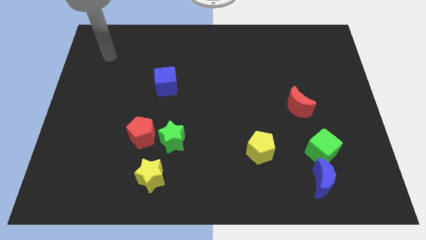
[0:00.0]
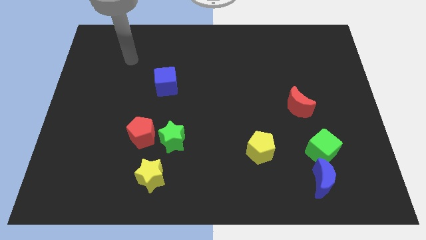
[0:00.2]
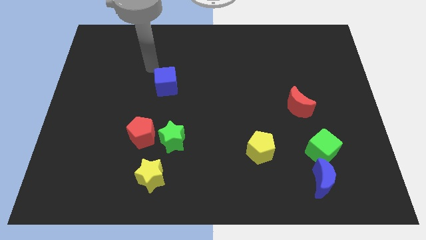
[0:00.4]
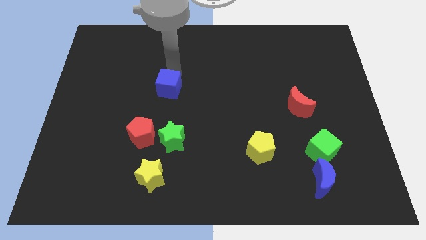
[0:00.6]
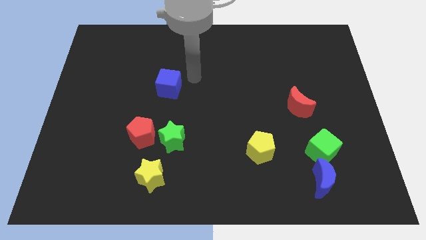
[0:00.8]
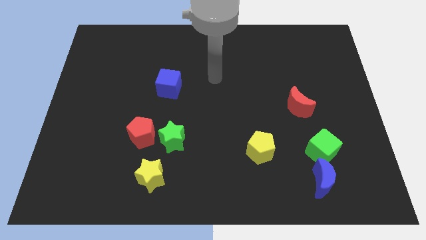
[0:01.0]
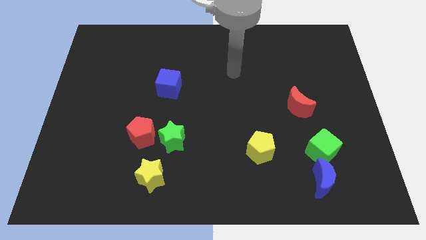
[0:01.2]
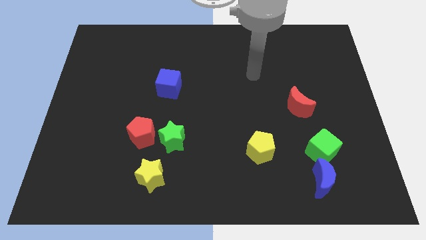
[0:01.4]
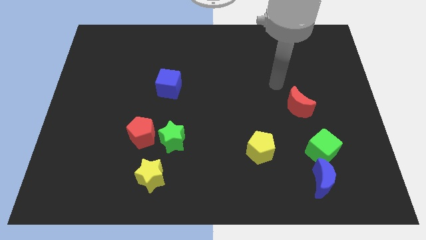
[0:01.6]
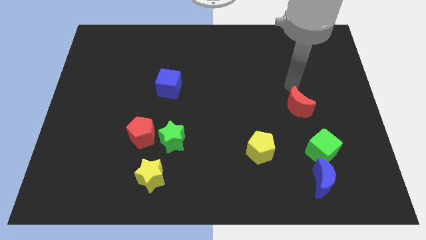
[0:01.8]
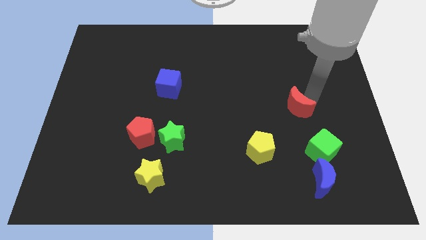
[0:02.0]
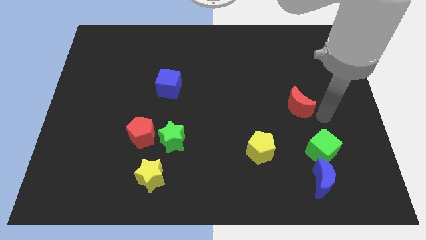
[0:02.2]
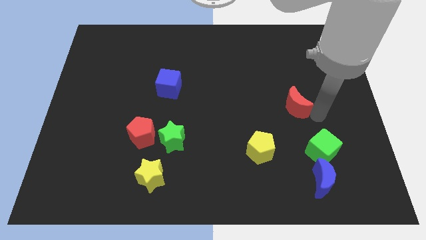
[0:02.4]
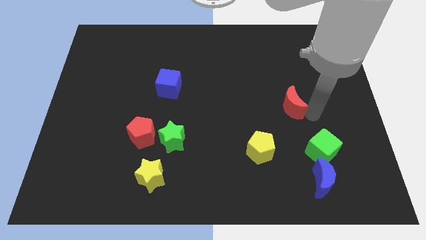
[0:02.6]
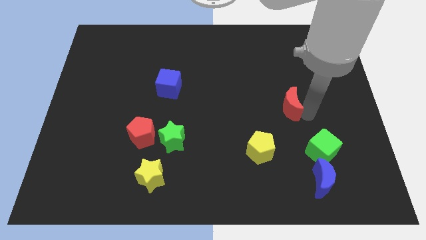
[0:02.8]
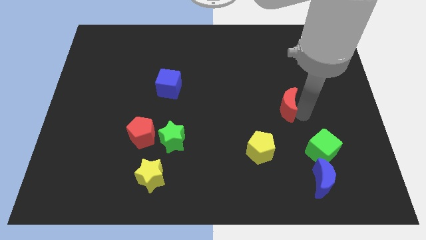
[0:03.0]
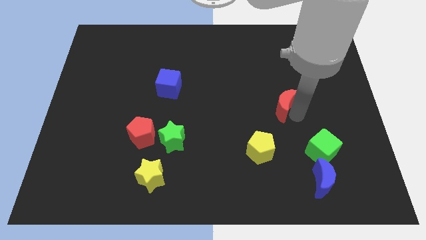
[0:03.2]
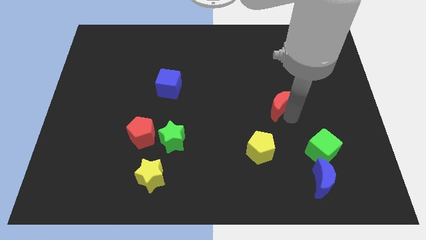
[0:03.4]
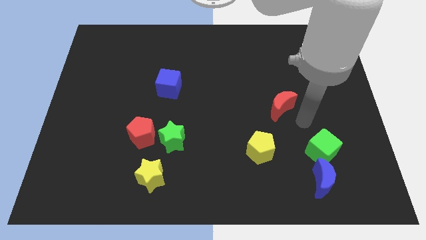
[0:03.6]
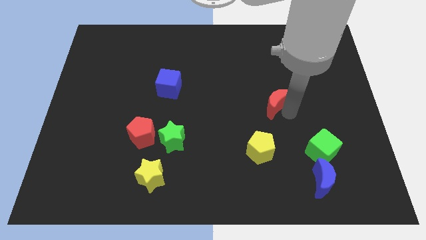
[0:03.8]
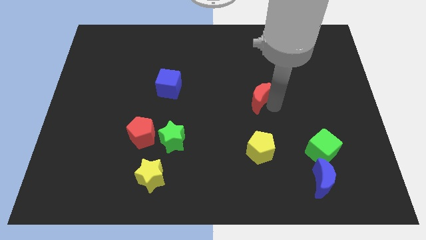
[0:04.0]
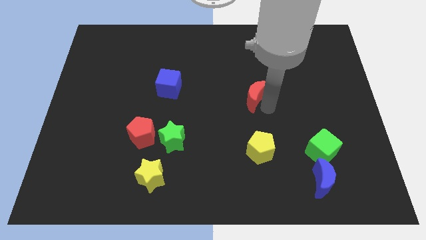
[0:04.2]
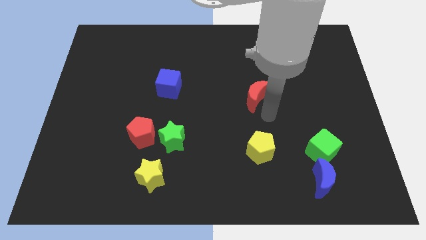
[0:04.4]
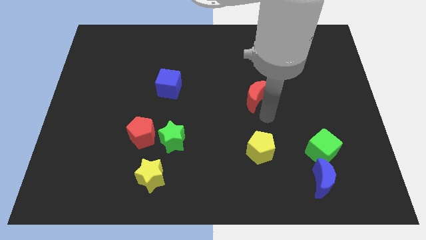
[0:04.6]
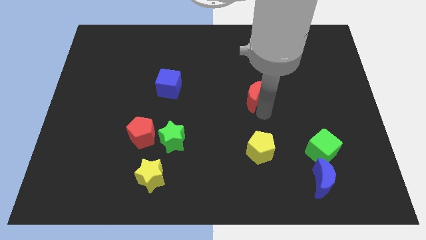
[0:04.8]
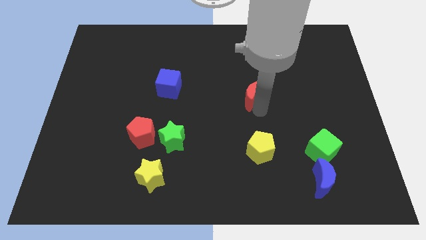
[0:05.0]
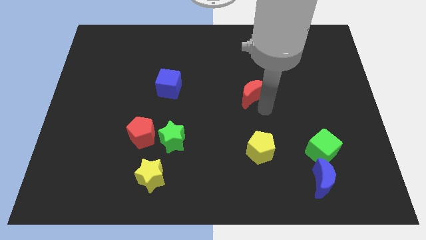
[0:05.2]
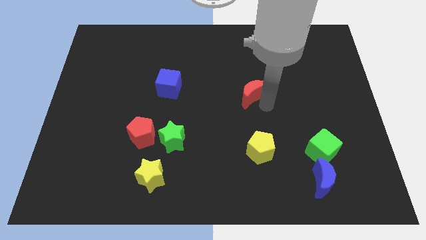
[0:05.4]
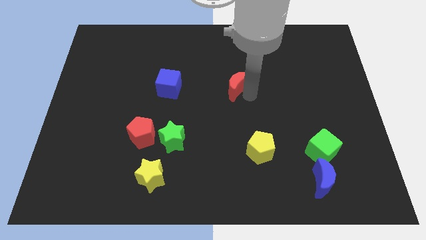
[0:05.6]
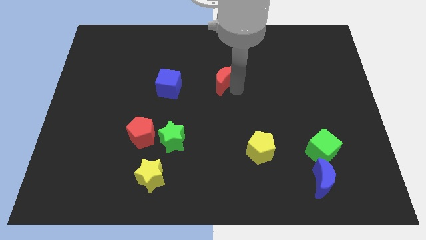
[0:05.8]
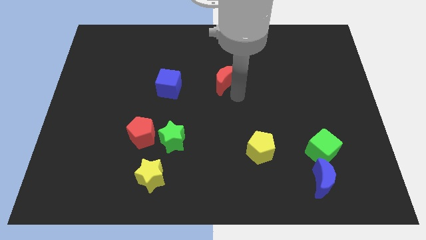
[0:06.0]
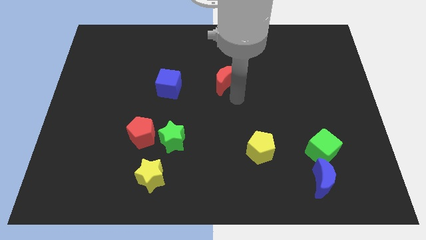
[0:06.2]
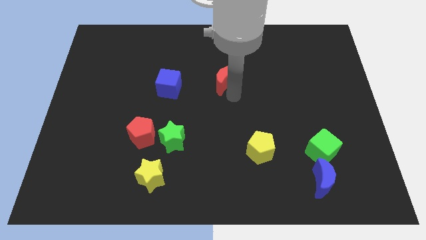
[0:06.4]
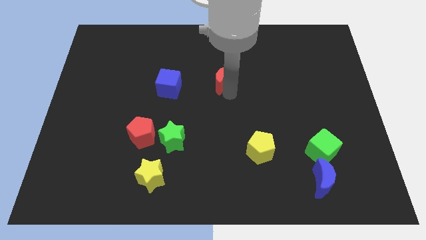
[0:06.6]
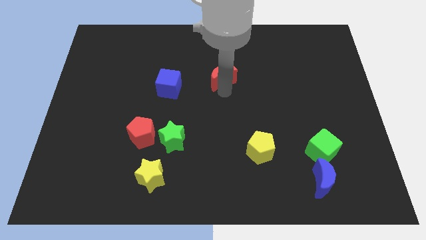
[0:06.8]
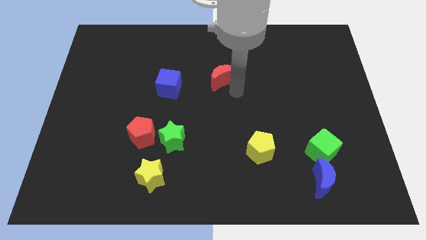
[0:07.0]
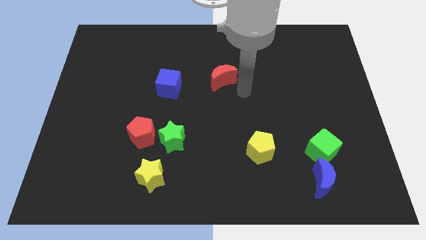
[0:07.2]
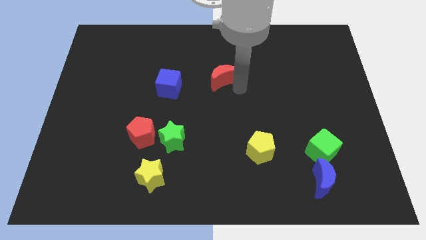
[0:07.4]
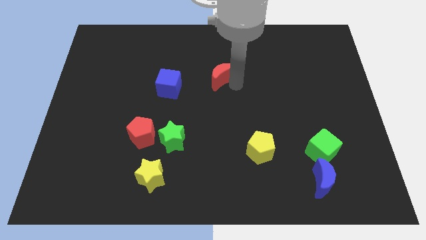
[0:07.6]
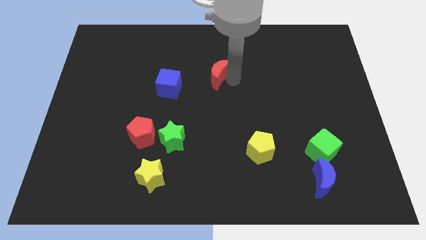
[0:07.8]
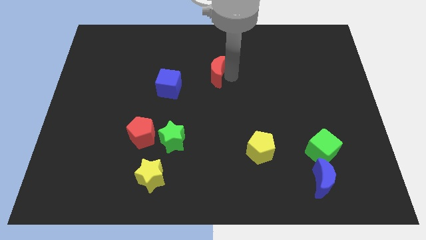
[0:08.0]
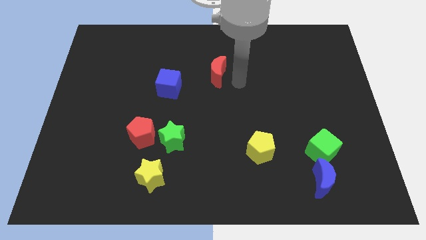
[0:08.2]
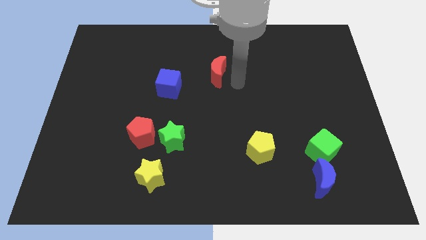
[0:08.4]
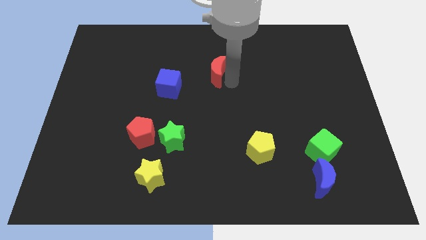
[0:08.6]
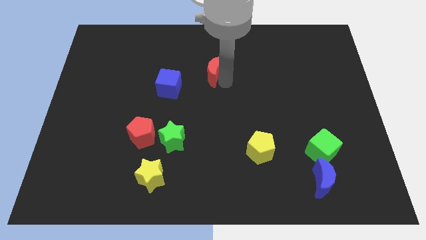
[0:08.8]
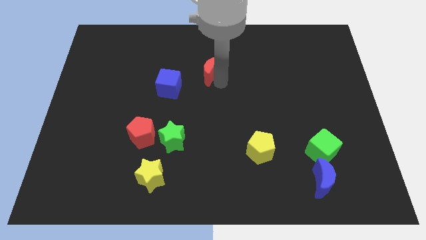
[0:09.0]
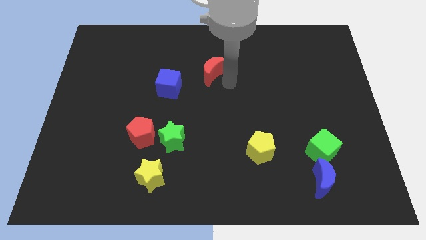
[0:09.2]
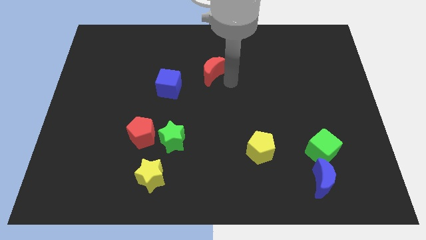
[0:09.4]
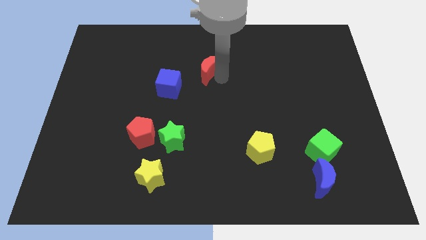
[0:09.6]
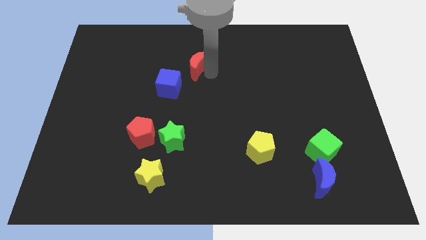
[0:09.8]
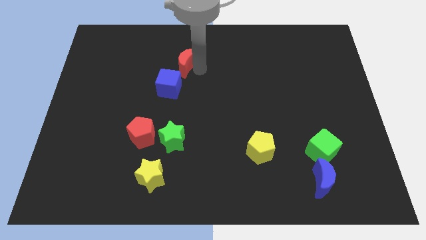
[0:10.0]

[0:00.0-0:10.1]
put the red moon above the blue cube

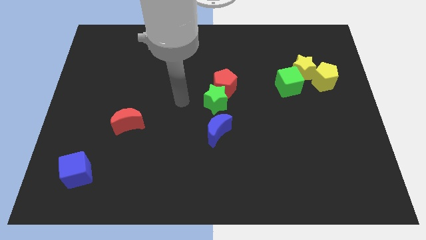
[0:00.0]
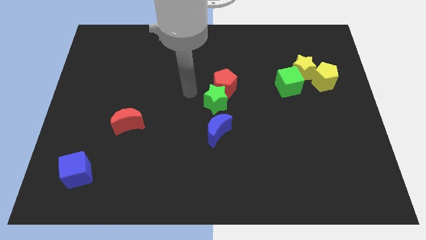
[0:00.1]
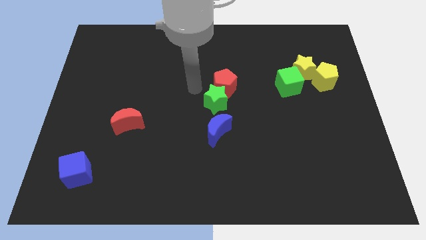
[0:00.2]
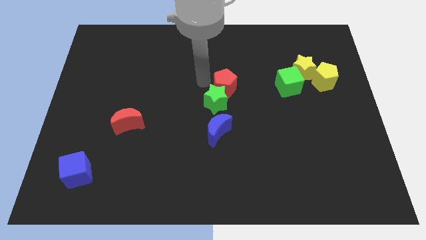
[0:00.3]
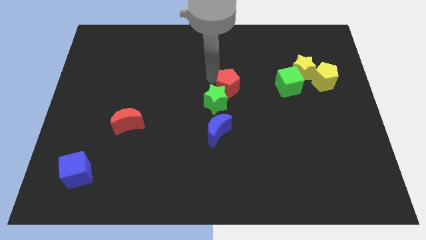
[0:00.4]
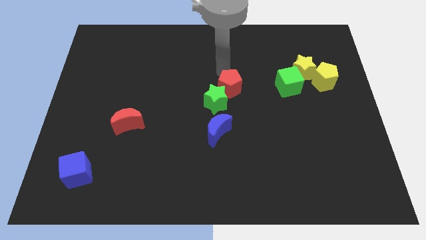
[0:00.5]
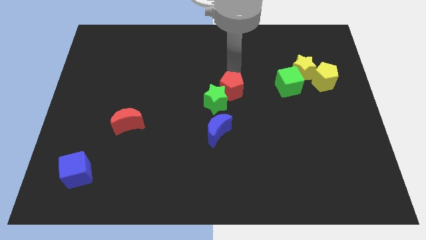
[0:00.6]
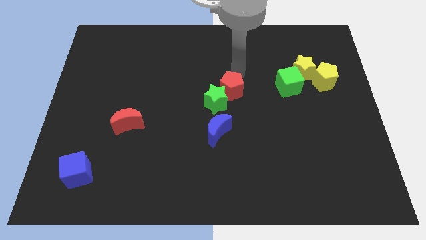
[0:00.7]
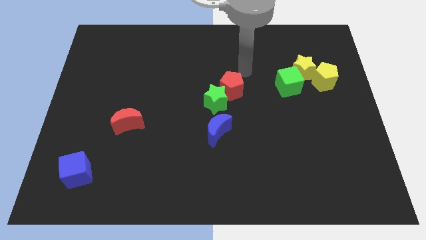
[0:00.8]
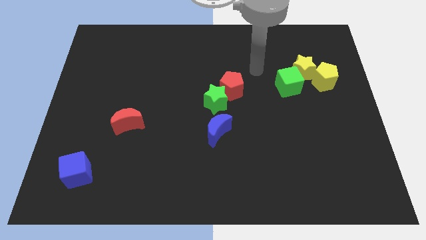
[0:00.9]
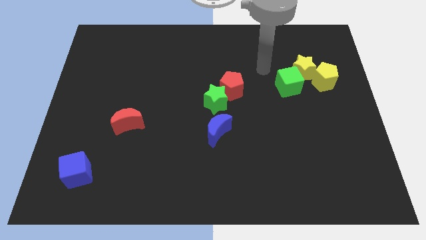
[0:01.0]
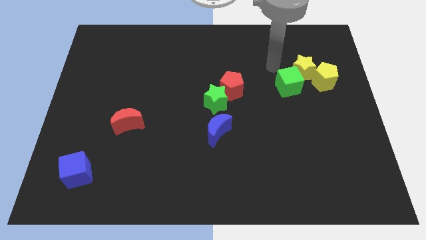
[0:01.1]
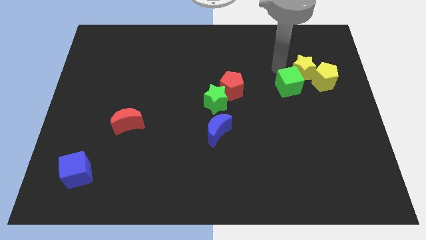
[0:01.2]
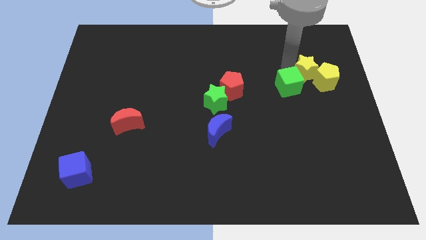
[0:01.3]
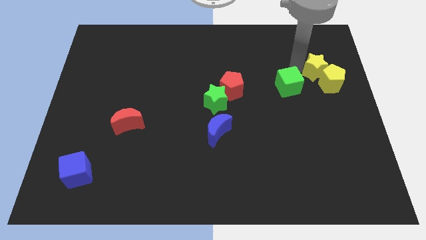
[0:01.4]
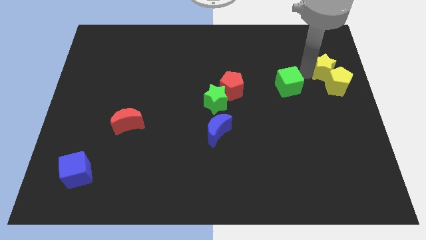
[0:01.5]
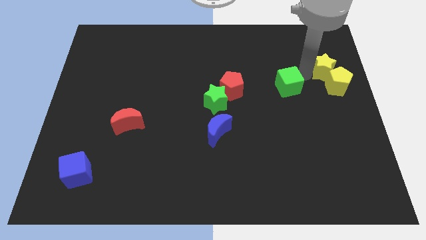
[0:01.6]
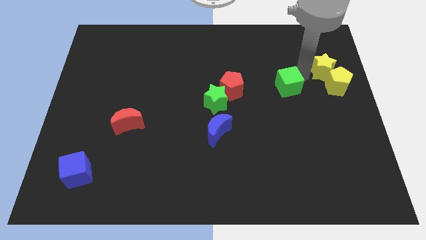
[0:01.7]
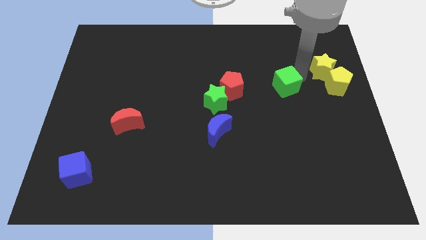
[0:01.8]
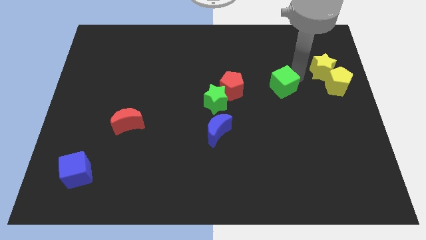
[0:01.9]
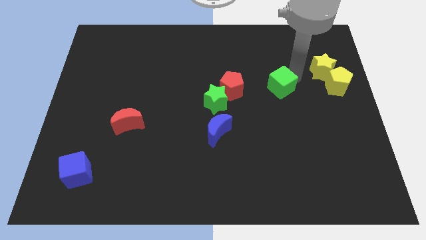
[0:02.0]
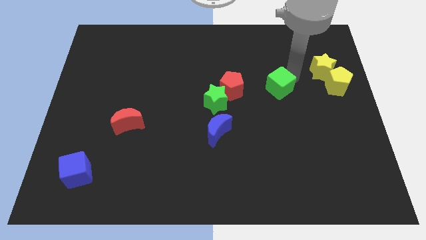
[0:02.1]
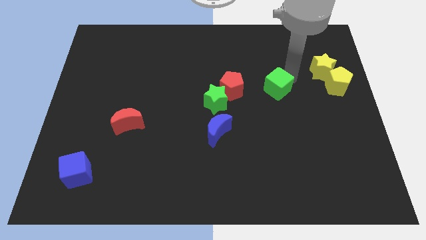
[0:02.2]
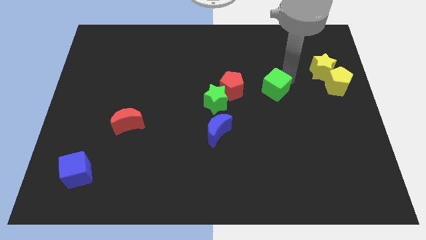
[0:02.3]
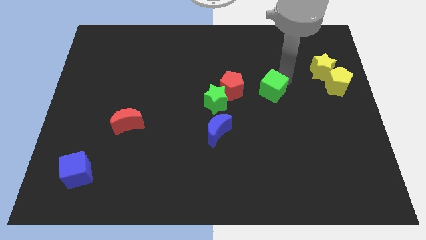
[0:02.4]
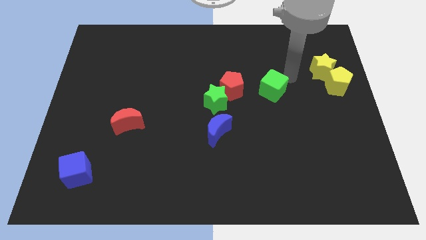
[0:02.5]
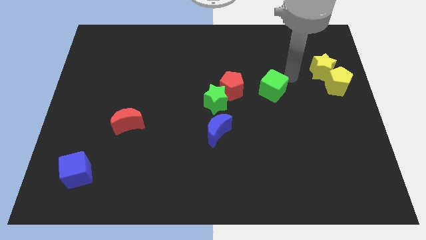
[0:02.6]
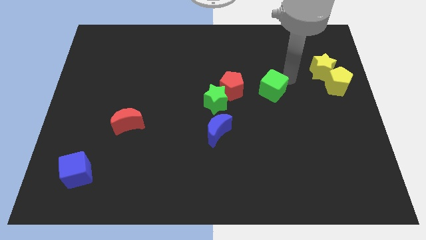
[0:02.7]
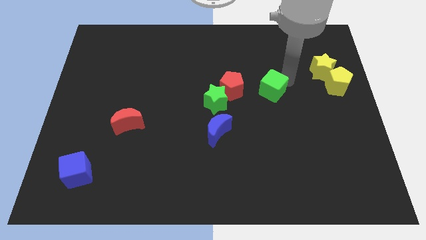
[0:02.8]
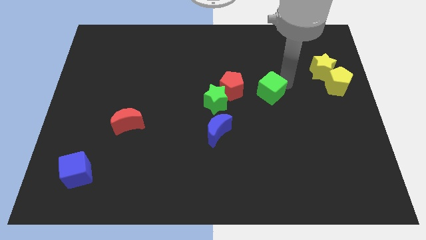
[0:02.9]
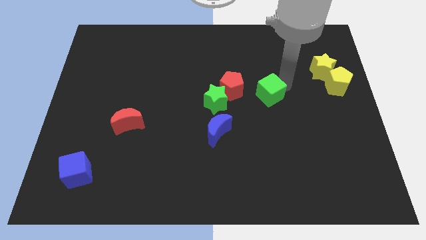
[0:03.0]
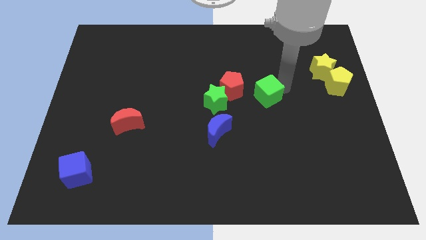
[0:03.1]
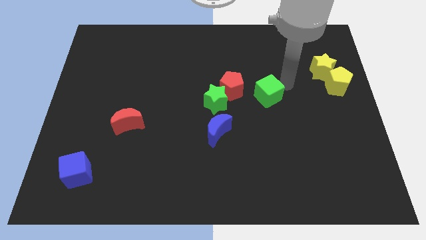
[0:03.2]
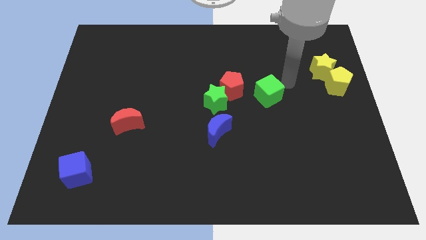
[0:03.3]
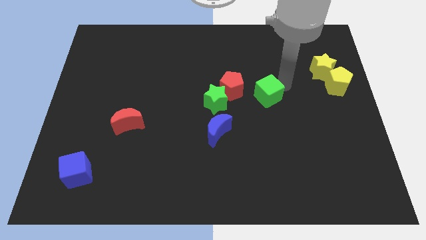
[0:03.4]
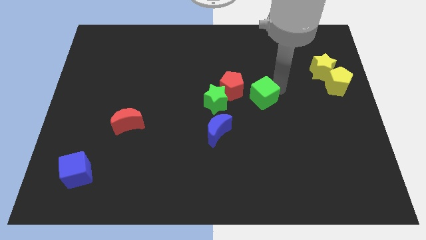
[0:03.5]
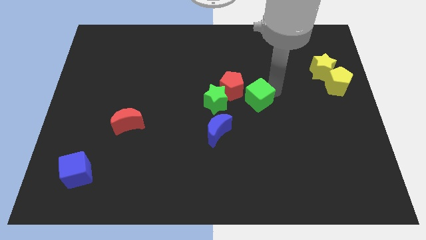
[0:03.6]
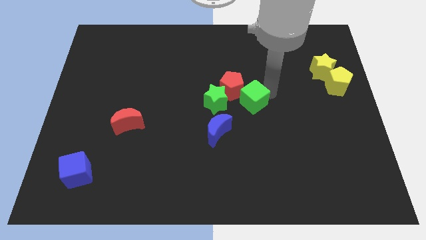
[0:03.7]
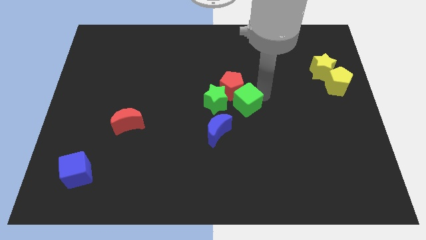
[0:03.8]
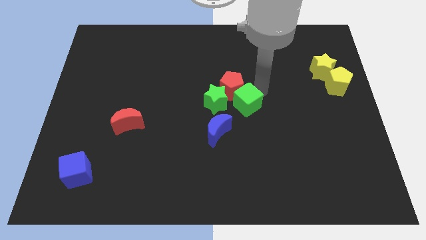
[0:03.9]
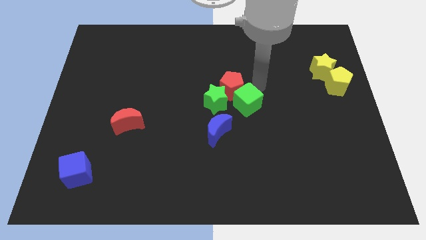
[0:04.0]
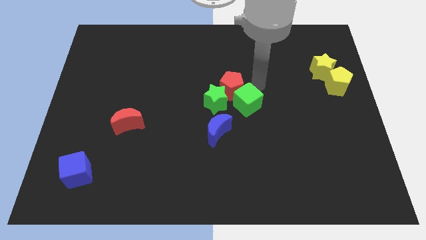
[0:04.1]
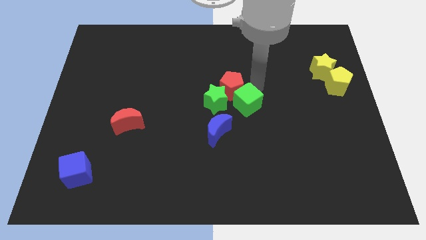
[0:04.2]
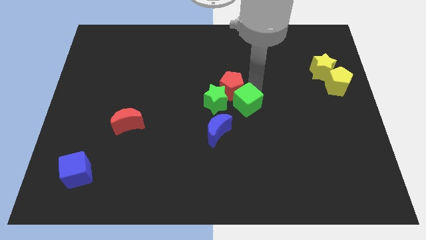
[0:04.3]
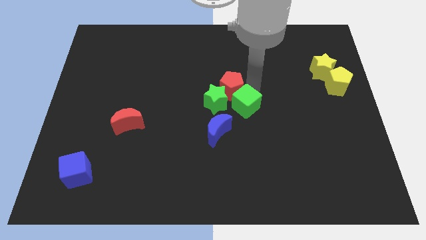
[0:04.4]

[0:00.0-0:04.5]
put the green cube diagonally down and to the right of the green star
